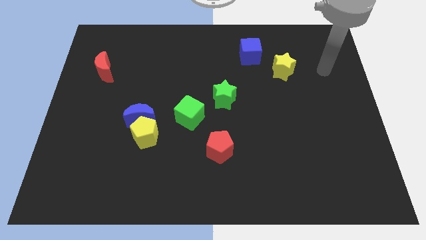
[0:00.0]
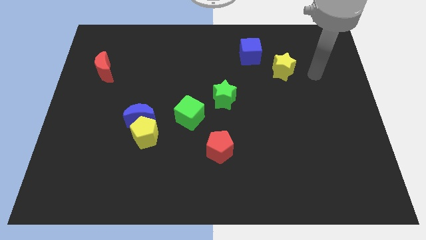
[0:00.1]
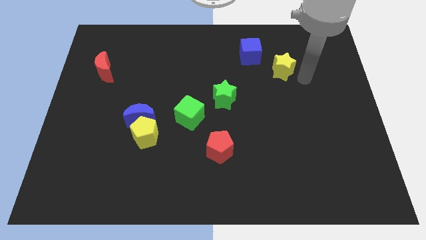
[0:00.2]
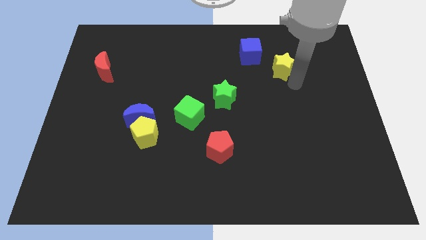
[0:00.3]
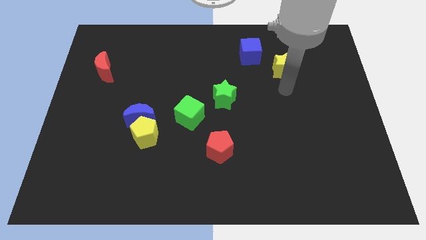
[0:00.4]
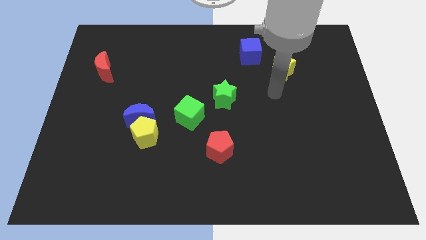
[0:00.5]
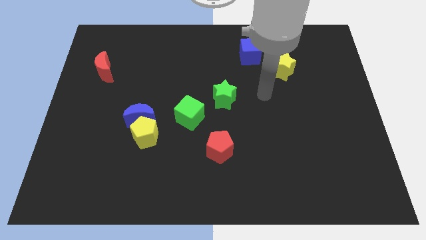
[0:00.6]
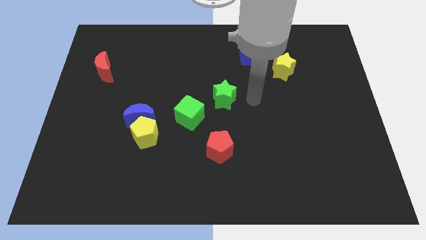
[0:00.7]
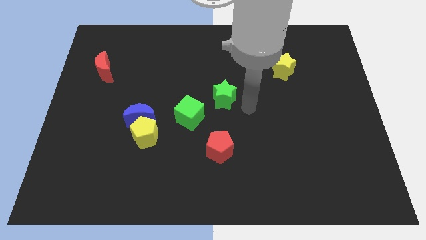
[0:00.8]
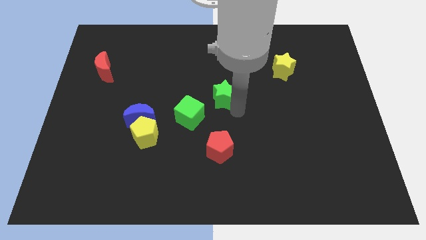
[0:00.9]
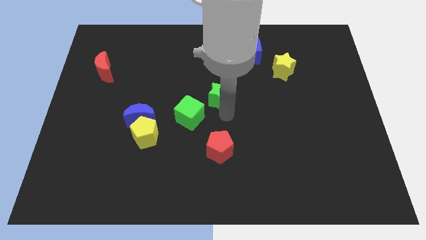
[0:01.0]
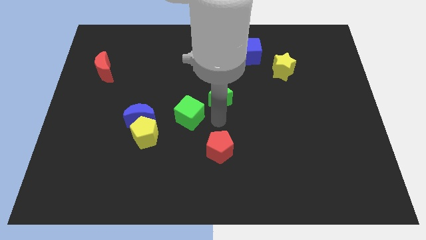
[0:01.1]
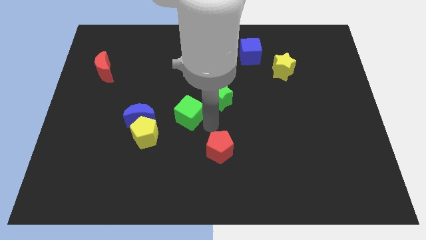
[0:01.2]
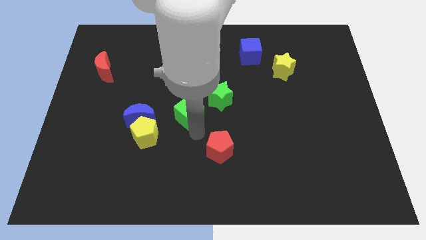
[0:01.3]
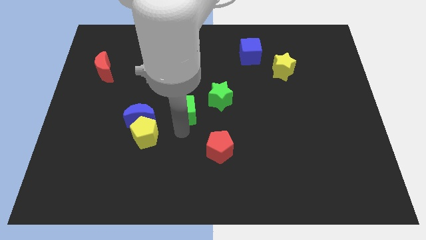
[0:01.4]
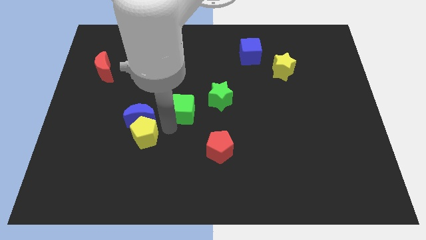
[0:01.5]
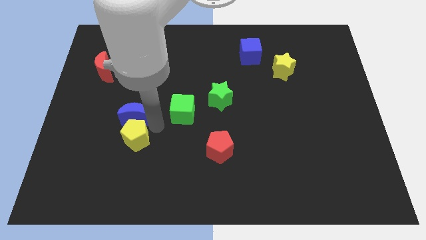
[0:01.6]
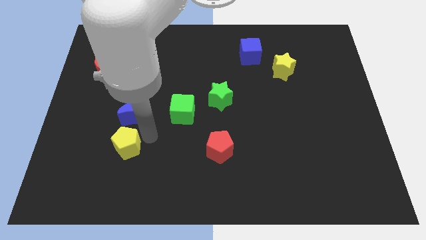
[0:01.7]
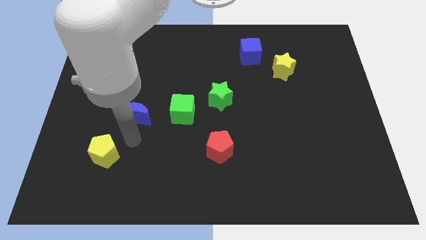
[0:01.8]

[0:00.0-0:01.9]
separate the blue moon from the yellow pentagon

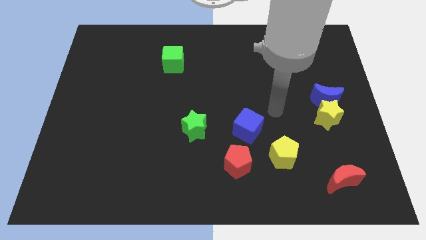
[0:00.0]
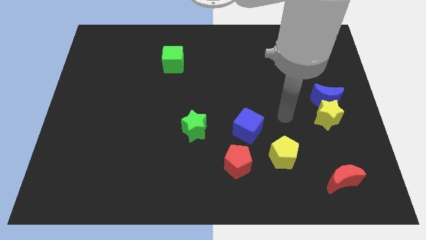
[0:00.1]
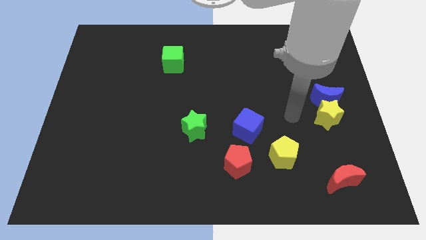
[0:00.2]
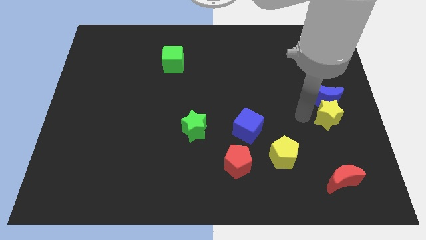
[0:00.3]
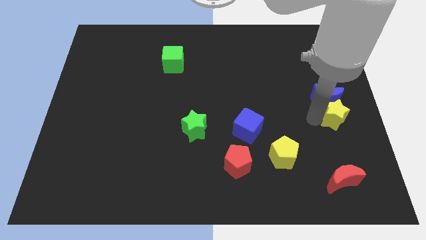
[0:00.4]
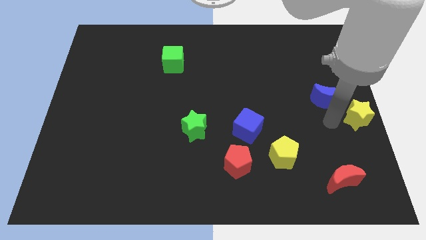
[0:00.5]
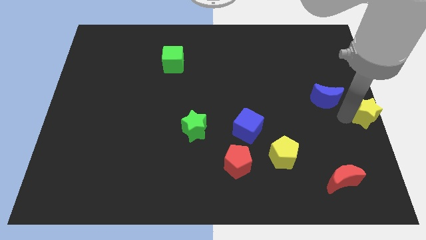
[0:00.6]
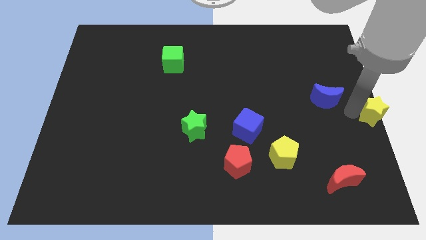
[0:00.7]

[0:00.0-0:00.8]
pull the blue moon apart from the yellow star

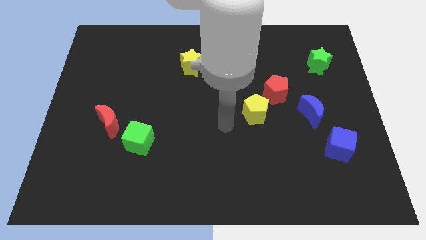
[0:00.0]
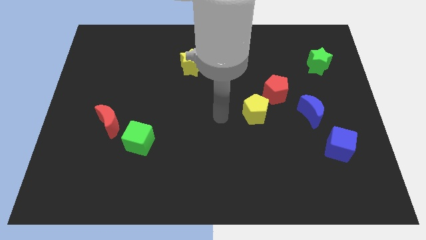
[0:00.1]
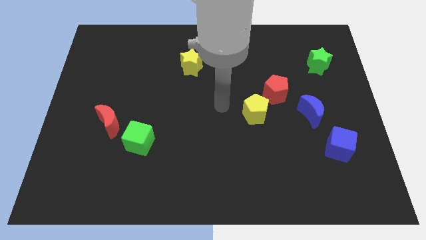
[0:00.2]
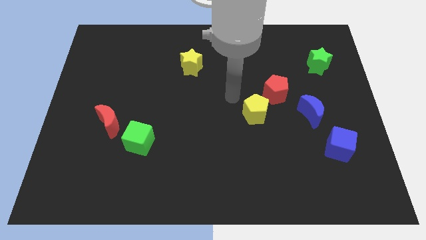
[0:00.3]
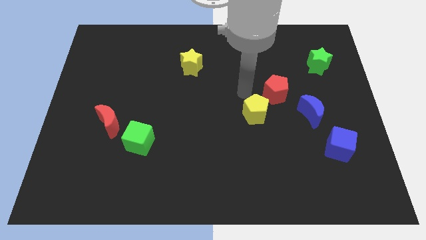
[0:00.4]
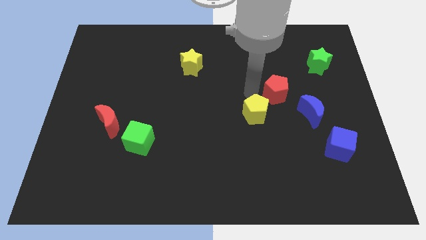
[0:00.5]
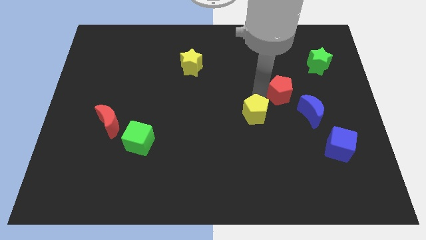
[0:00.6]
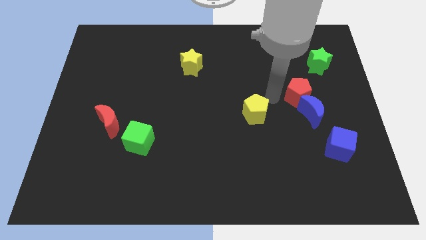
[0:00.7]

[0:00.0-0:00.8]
move the yellow pentagon away from the red pentagon

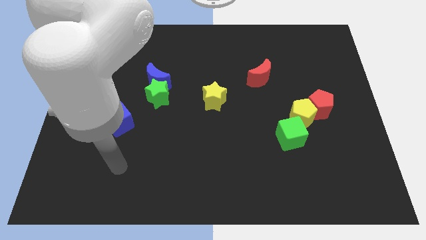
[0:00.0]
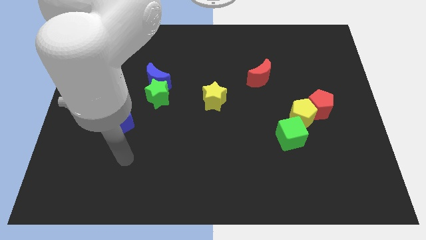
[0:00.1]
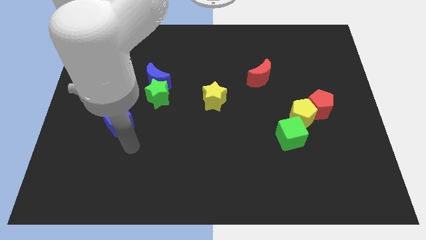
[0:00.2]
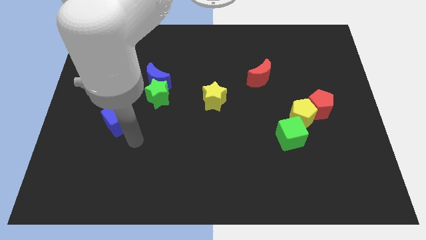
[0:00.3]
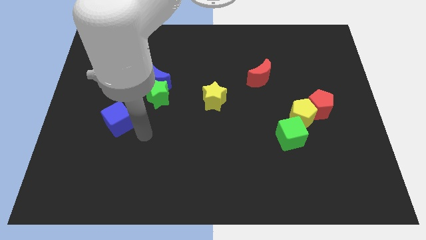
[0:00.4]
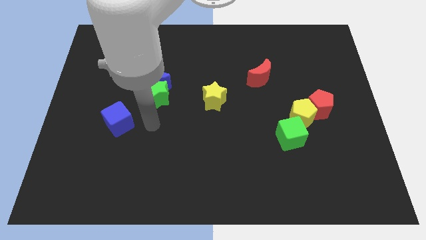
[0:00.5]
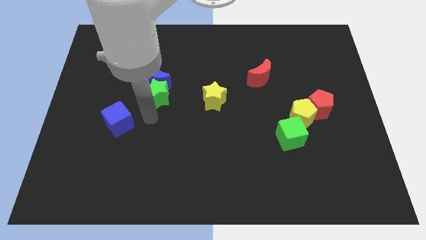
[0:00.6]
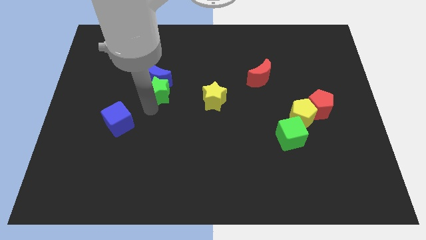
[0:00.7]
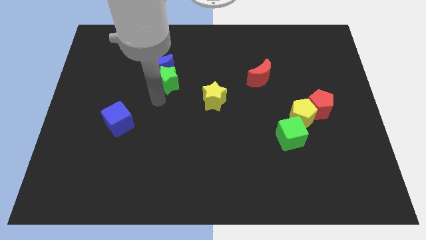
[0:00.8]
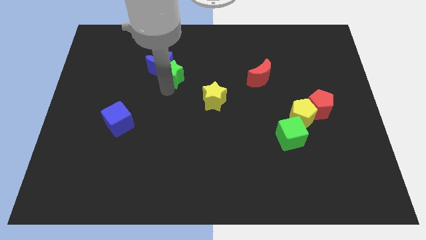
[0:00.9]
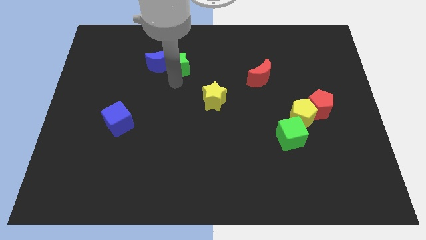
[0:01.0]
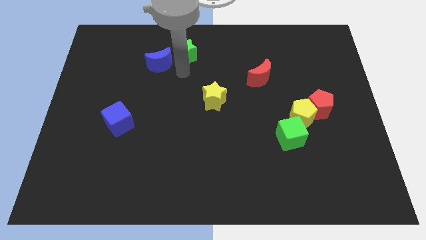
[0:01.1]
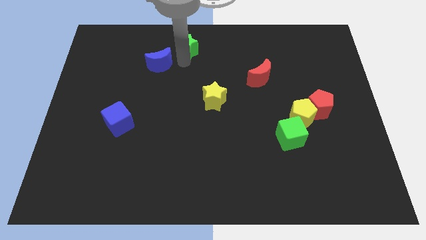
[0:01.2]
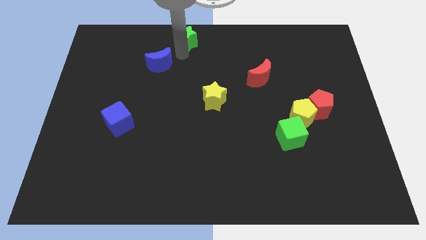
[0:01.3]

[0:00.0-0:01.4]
move the blue moon away from the green star

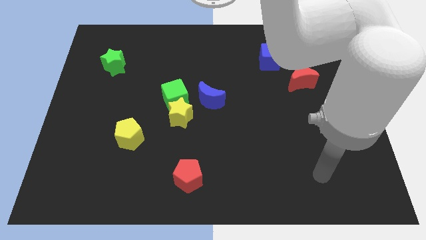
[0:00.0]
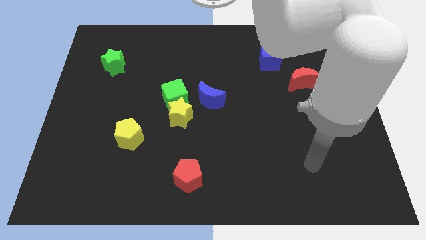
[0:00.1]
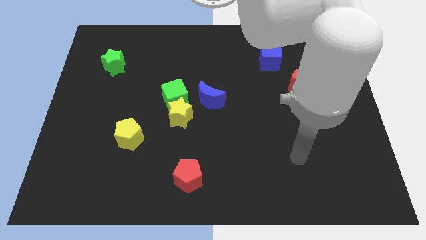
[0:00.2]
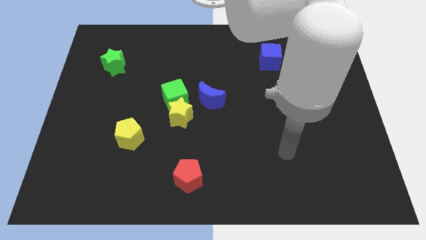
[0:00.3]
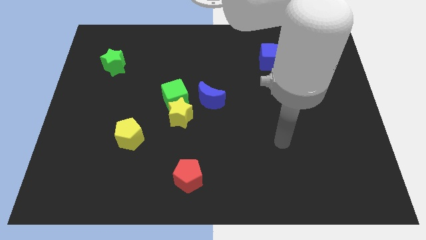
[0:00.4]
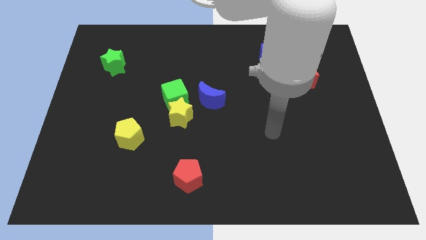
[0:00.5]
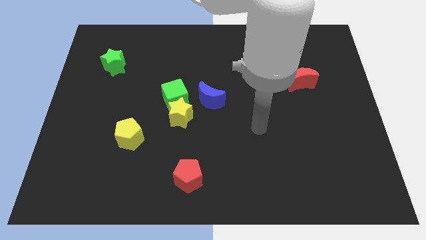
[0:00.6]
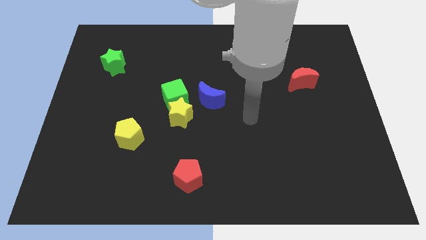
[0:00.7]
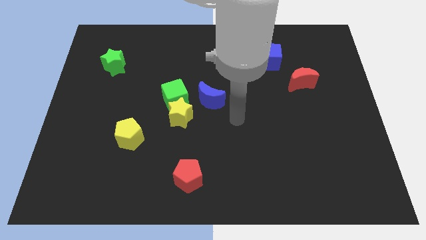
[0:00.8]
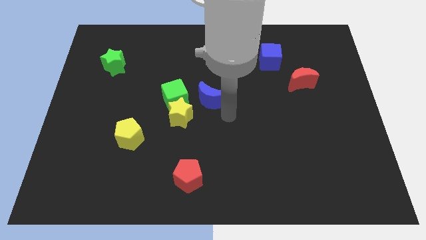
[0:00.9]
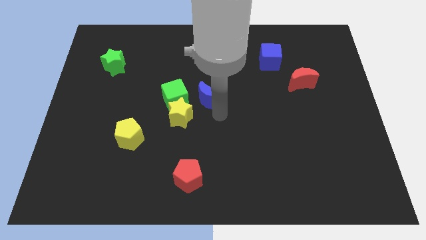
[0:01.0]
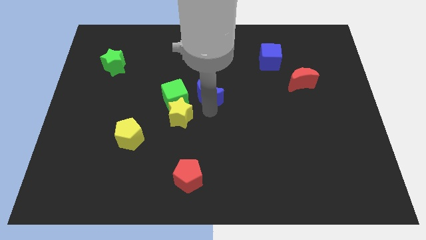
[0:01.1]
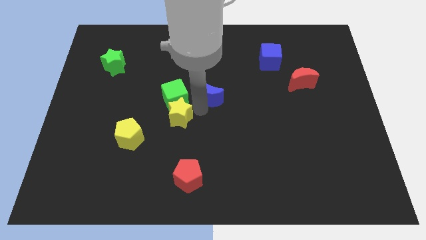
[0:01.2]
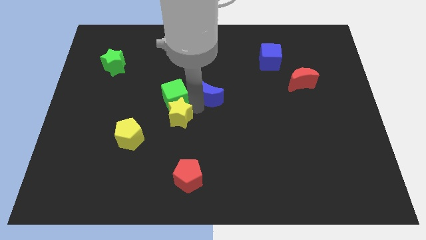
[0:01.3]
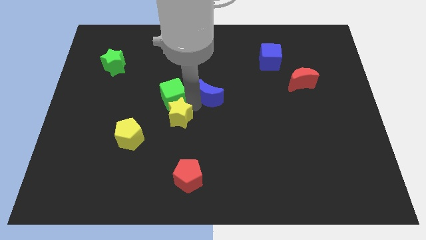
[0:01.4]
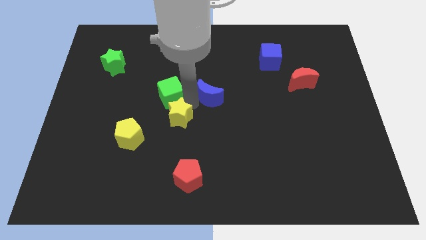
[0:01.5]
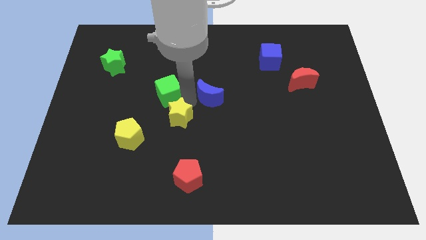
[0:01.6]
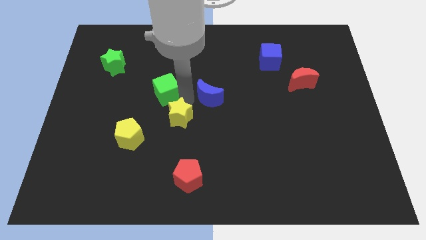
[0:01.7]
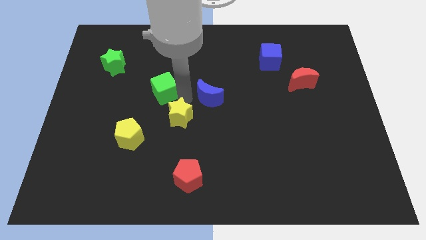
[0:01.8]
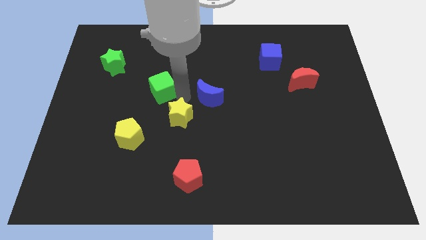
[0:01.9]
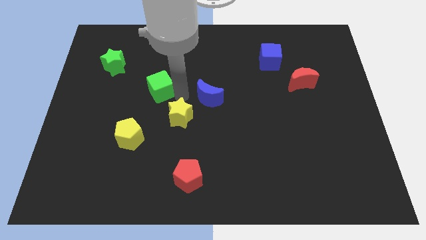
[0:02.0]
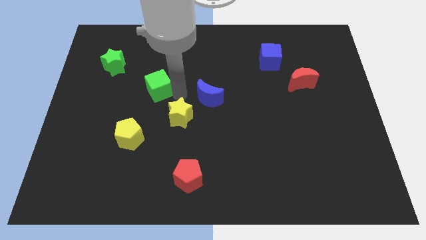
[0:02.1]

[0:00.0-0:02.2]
move the green cube away from the yellow star and blue moon

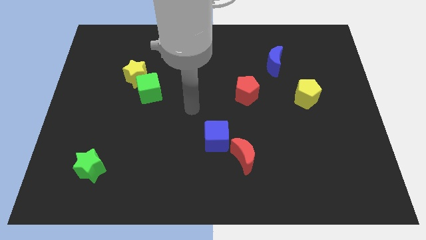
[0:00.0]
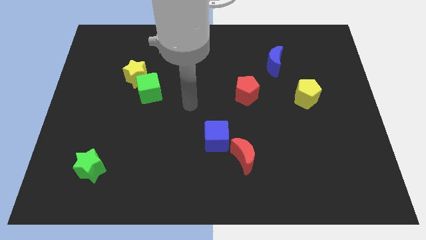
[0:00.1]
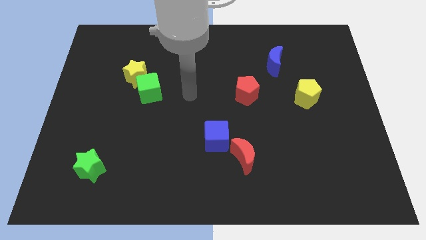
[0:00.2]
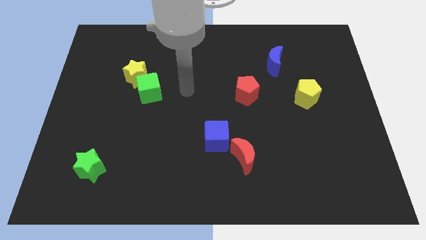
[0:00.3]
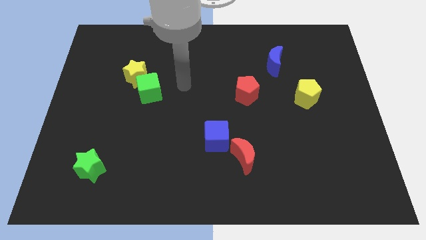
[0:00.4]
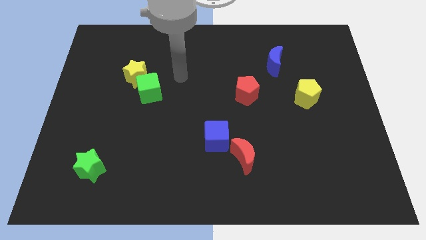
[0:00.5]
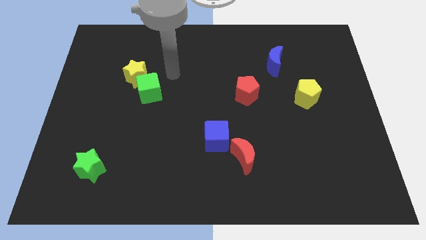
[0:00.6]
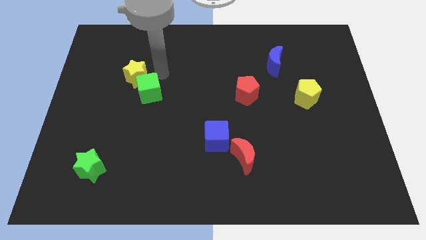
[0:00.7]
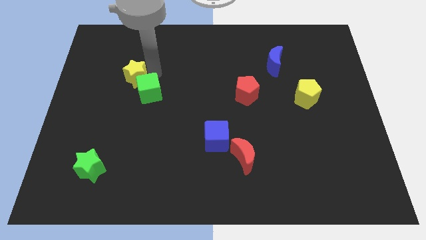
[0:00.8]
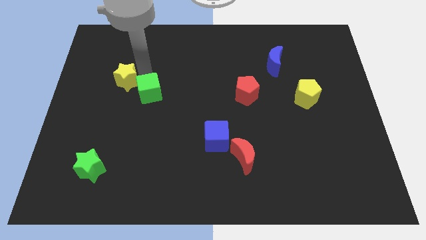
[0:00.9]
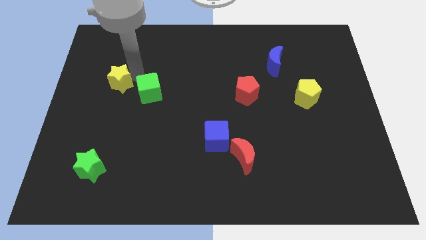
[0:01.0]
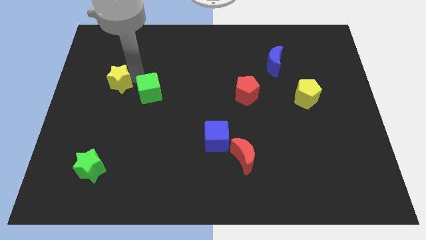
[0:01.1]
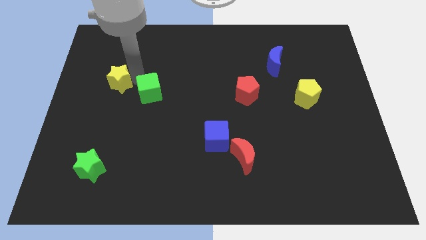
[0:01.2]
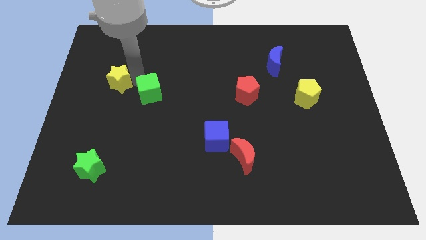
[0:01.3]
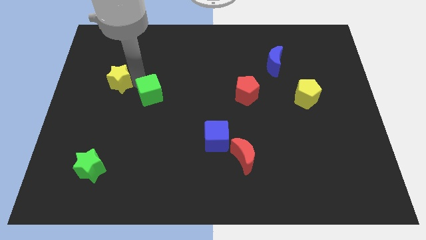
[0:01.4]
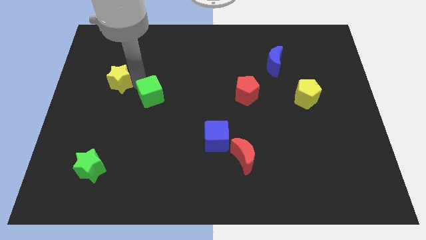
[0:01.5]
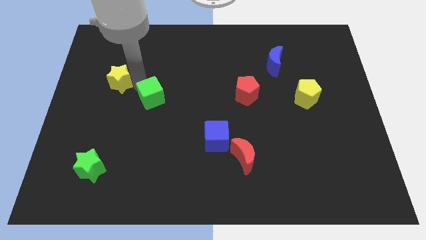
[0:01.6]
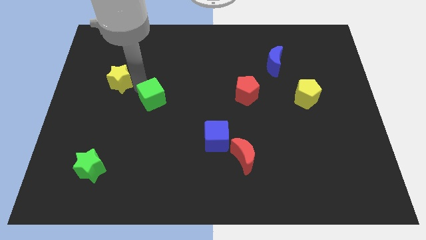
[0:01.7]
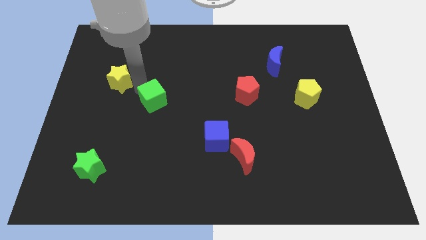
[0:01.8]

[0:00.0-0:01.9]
separate the green cube from the yellow star

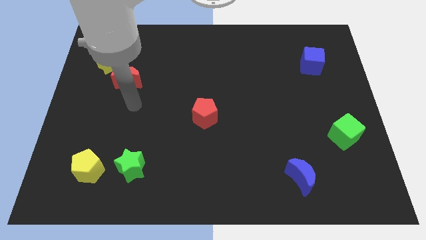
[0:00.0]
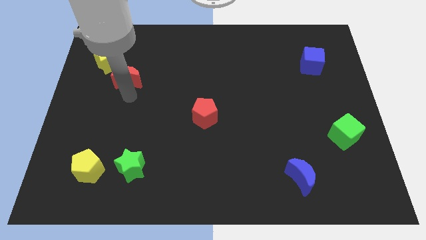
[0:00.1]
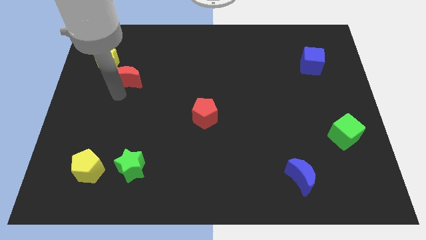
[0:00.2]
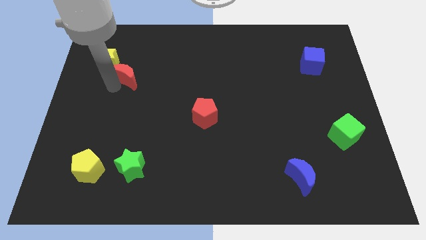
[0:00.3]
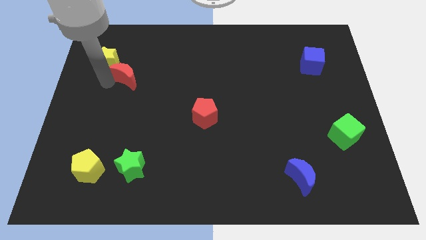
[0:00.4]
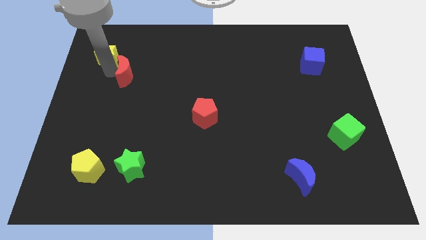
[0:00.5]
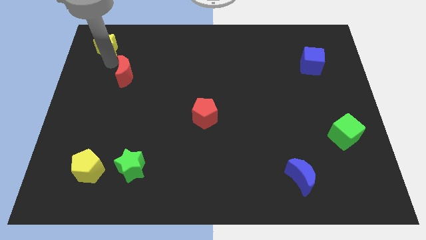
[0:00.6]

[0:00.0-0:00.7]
move the red moon away from the yellow star
